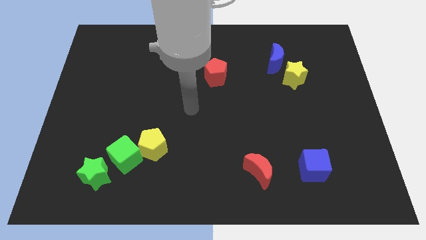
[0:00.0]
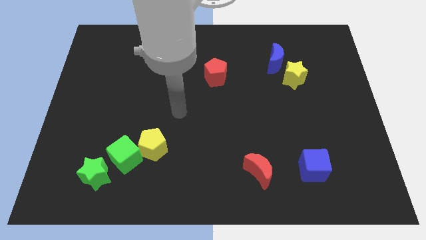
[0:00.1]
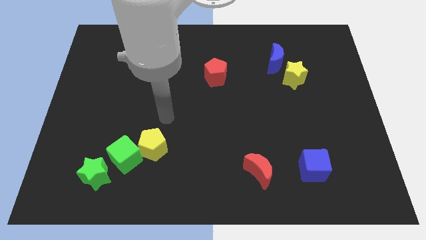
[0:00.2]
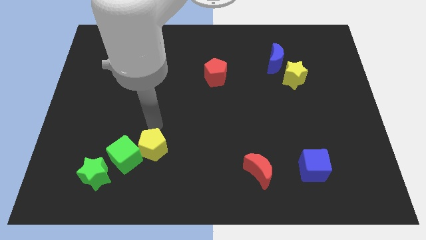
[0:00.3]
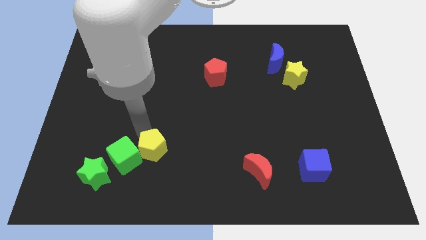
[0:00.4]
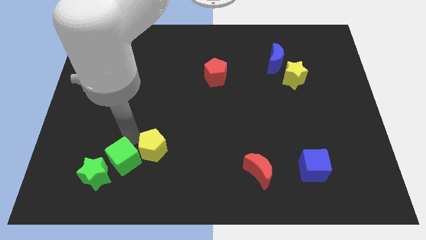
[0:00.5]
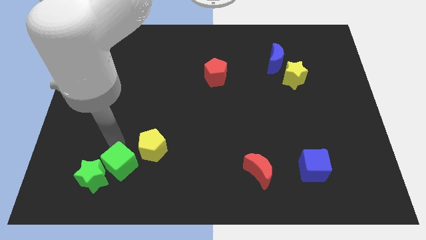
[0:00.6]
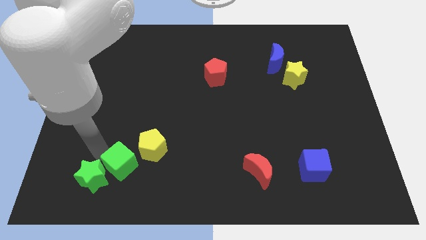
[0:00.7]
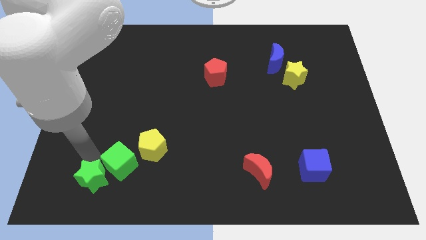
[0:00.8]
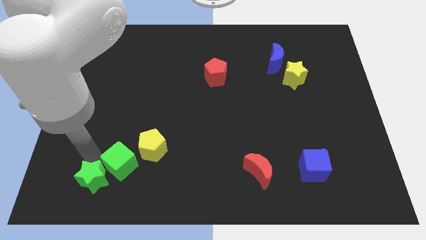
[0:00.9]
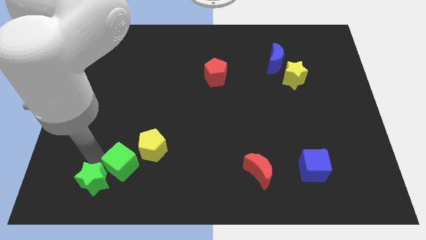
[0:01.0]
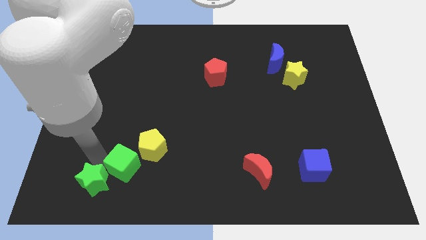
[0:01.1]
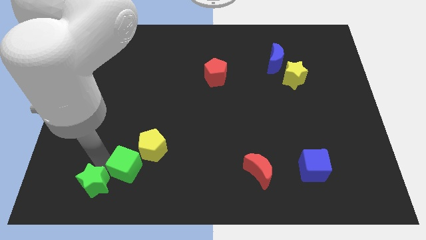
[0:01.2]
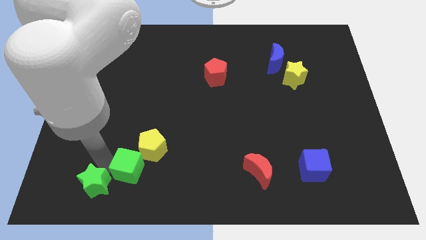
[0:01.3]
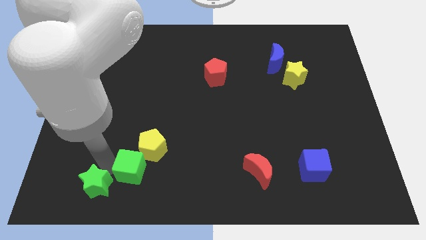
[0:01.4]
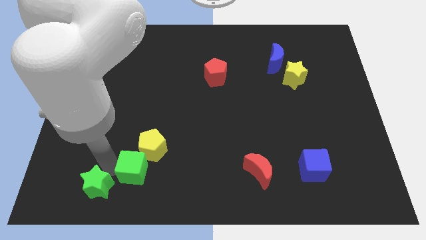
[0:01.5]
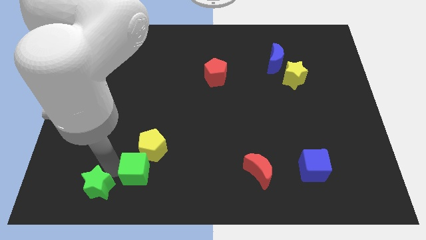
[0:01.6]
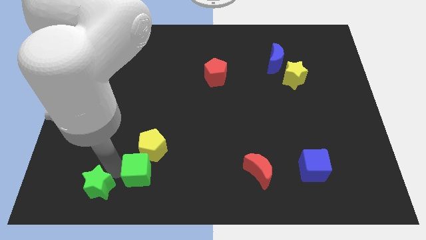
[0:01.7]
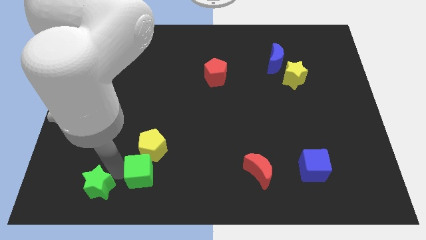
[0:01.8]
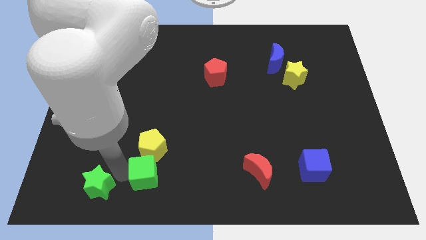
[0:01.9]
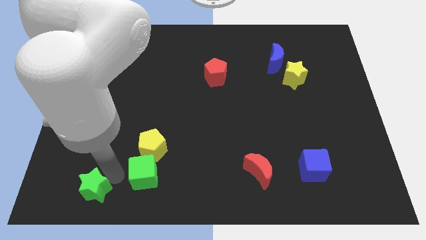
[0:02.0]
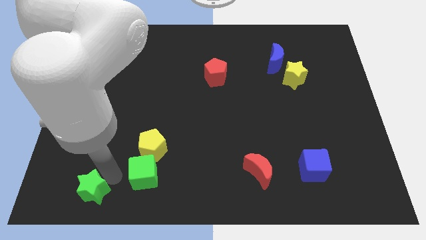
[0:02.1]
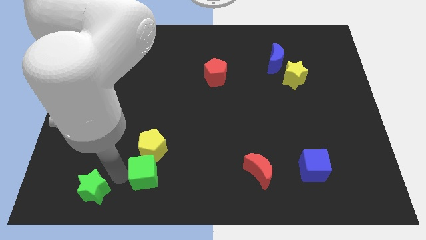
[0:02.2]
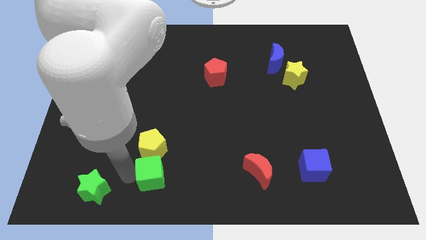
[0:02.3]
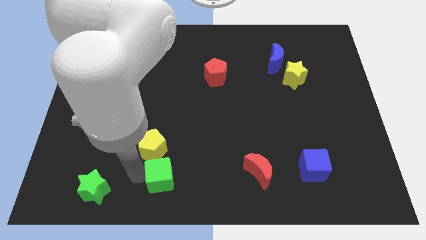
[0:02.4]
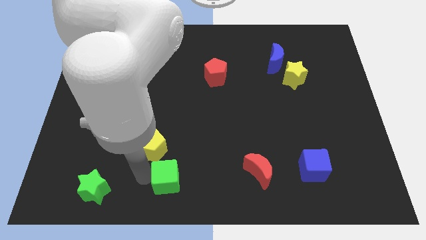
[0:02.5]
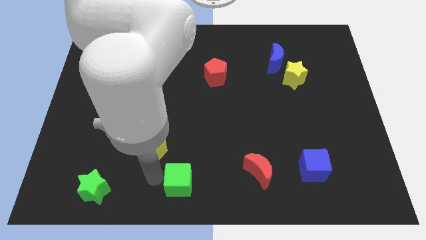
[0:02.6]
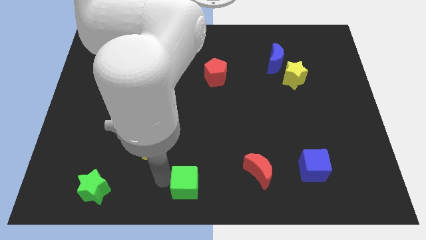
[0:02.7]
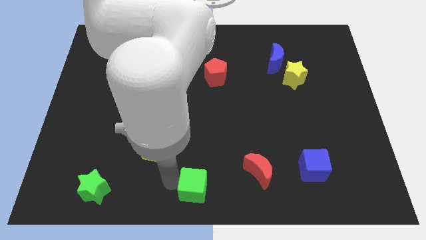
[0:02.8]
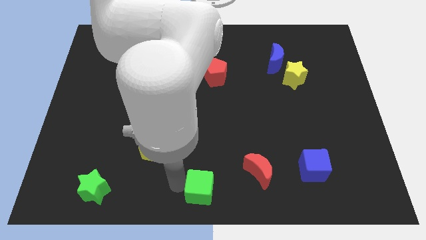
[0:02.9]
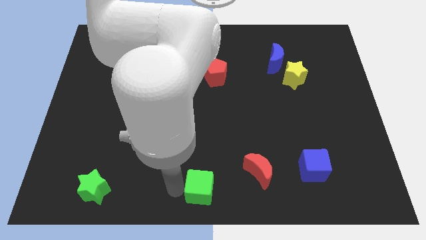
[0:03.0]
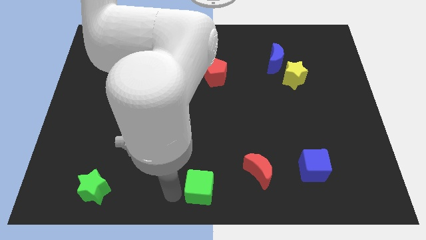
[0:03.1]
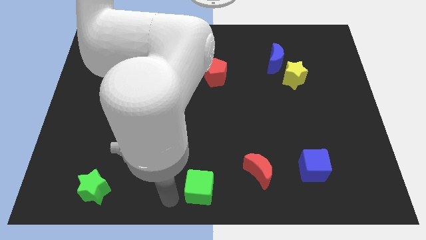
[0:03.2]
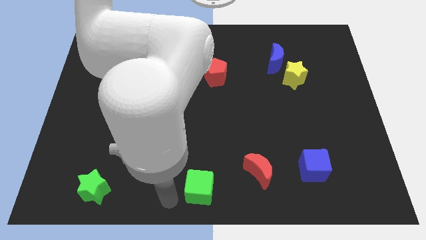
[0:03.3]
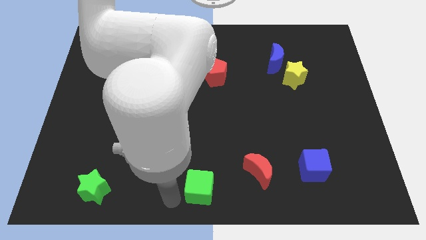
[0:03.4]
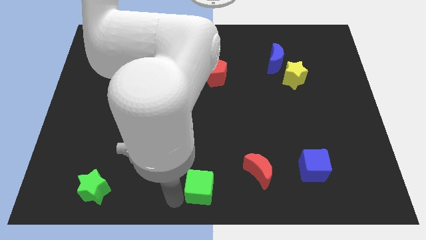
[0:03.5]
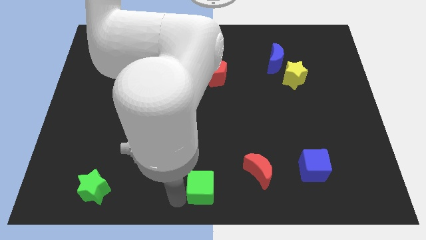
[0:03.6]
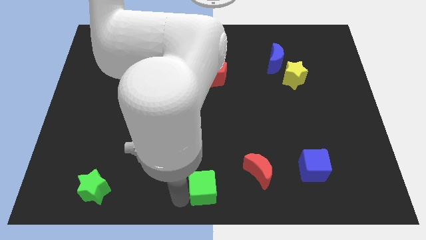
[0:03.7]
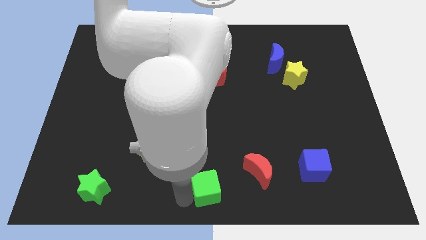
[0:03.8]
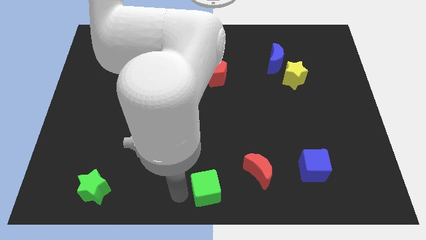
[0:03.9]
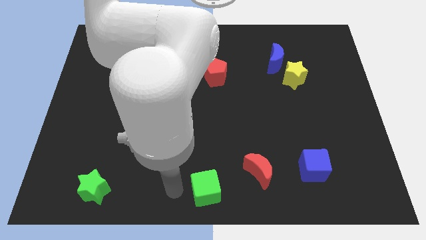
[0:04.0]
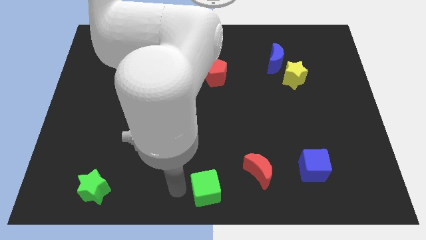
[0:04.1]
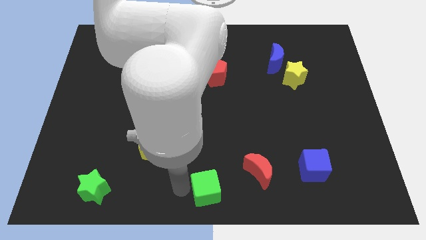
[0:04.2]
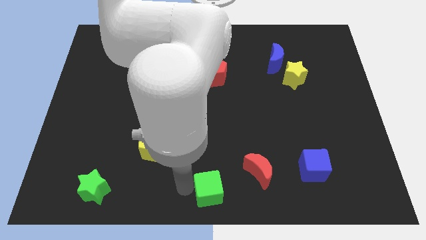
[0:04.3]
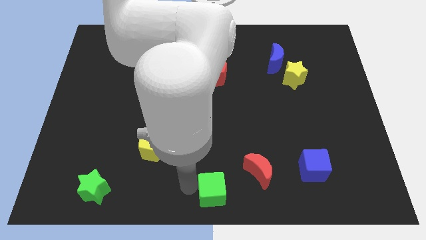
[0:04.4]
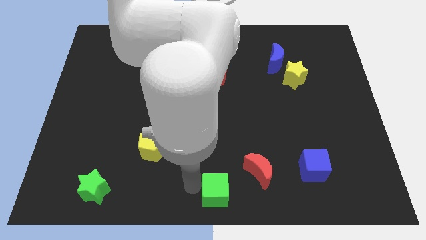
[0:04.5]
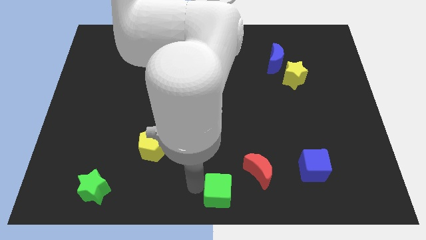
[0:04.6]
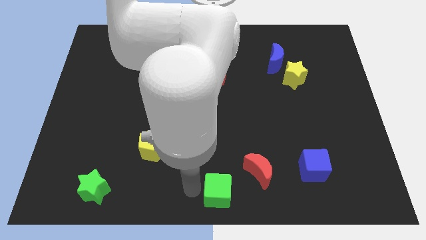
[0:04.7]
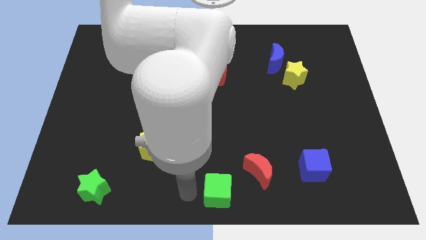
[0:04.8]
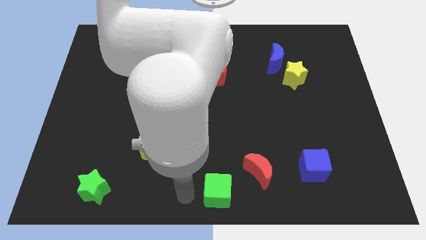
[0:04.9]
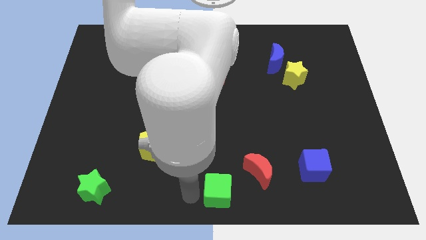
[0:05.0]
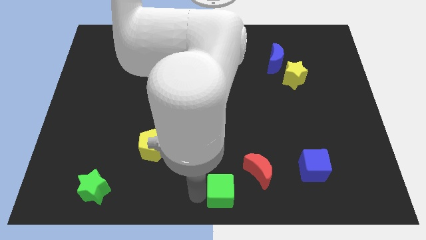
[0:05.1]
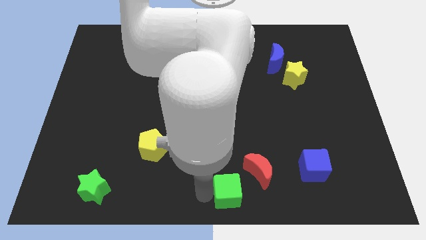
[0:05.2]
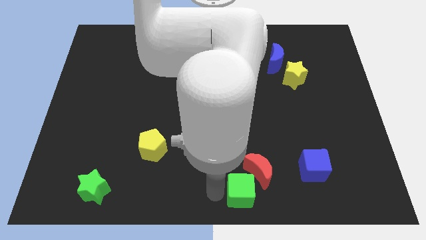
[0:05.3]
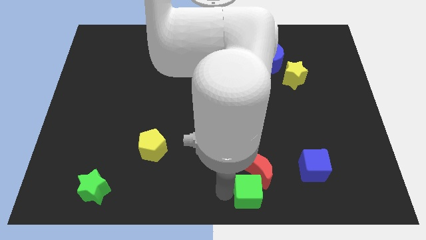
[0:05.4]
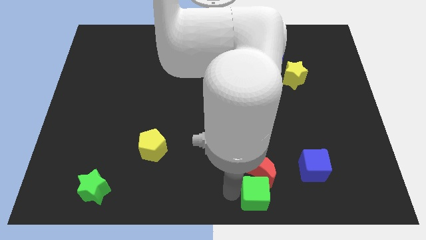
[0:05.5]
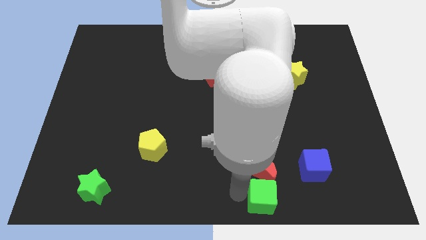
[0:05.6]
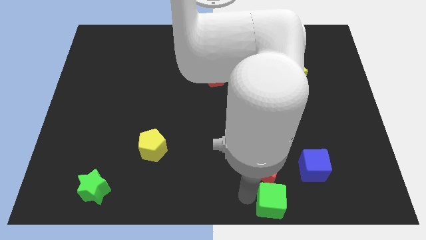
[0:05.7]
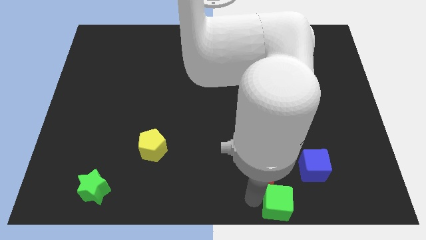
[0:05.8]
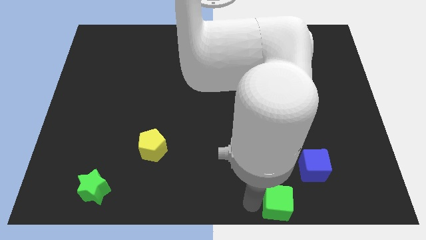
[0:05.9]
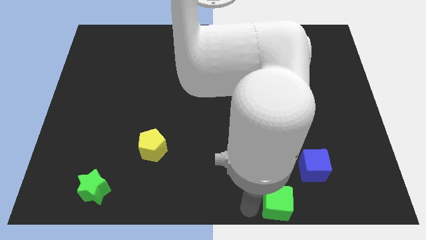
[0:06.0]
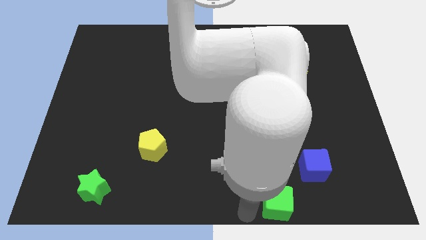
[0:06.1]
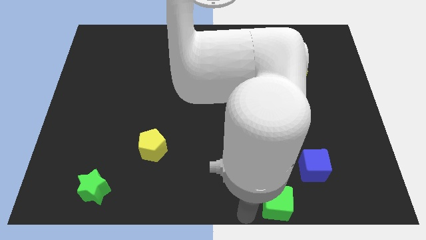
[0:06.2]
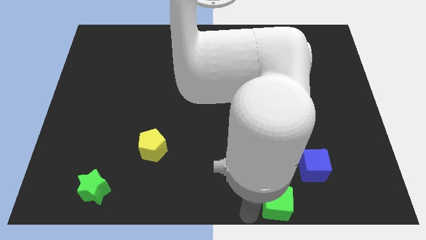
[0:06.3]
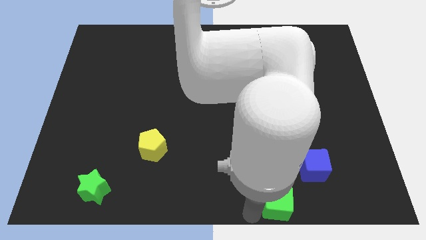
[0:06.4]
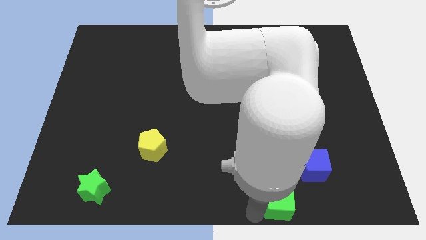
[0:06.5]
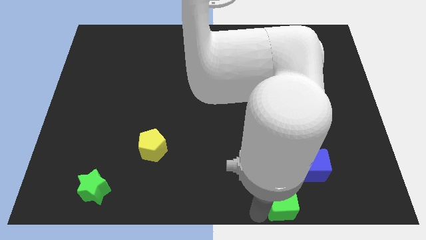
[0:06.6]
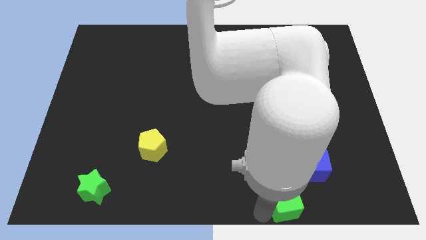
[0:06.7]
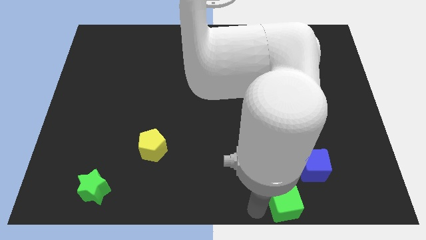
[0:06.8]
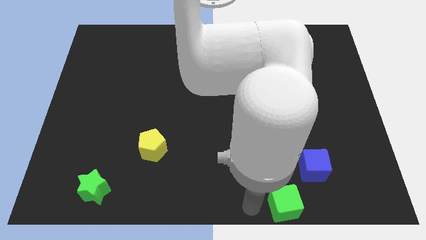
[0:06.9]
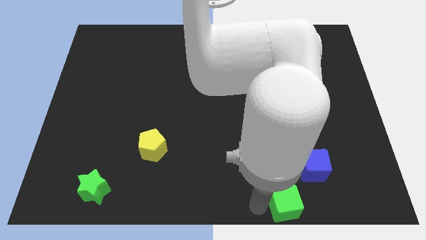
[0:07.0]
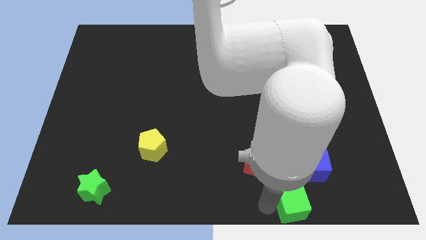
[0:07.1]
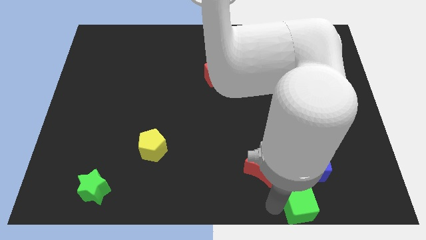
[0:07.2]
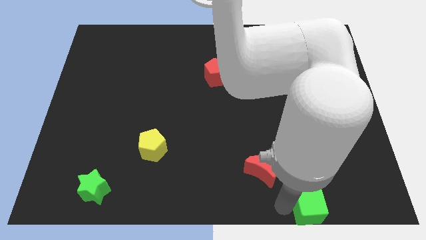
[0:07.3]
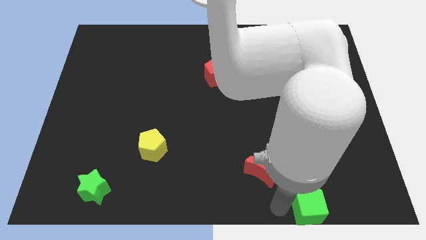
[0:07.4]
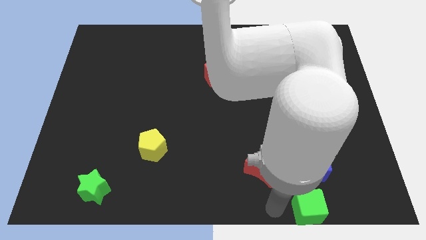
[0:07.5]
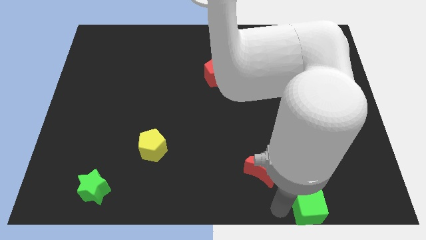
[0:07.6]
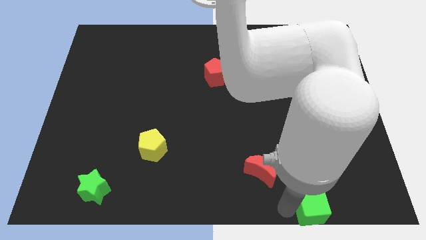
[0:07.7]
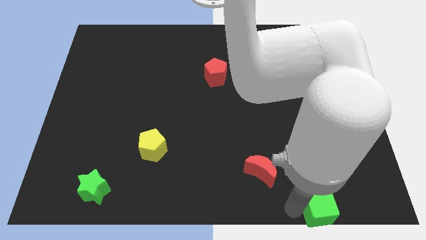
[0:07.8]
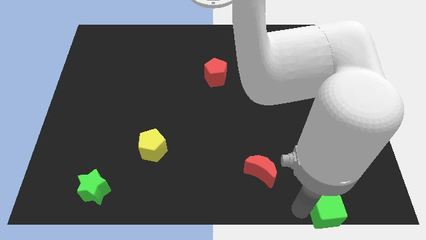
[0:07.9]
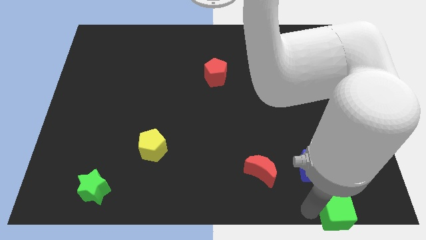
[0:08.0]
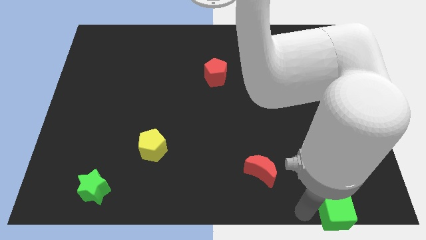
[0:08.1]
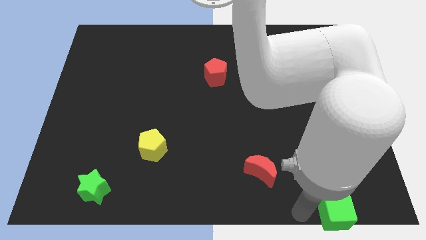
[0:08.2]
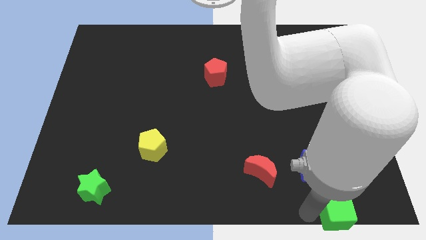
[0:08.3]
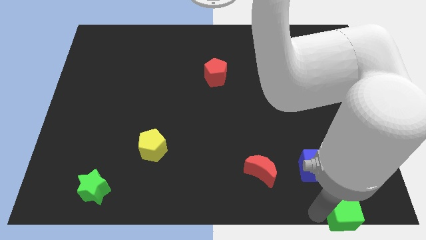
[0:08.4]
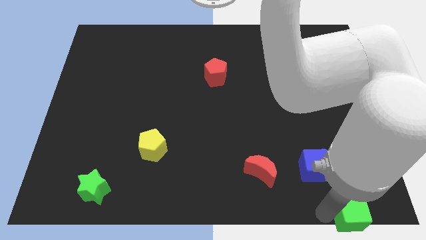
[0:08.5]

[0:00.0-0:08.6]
put the green cube to the bottom right of the board
